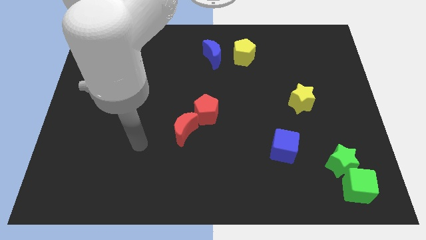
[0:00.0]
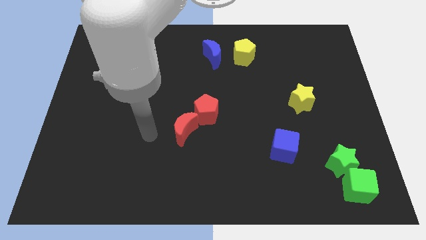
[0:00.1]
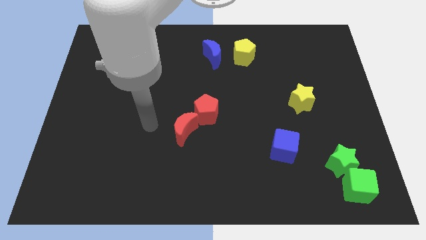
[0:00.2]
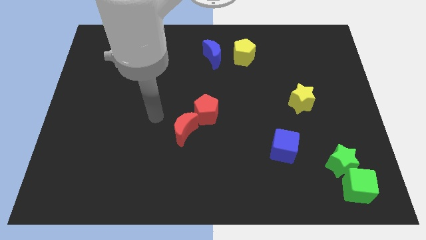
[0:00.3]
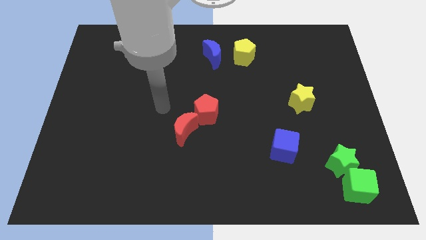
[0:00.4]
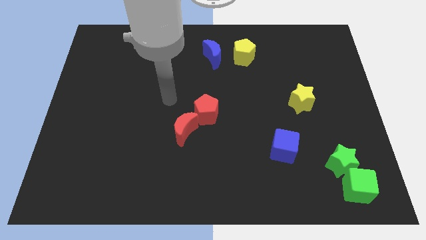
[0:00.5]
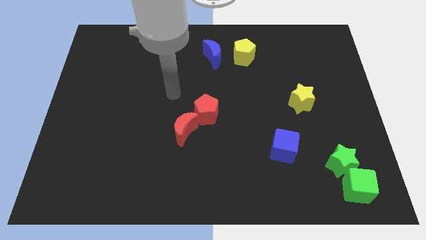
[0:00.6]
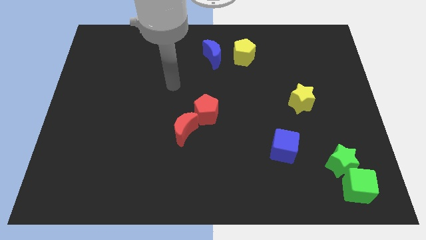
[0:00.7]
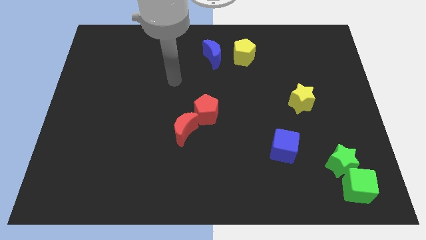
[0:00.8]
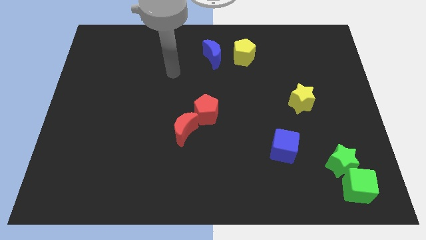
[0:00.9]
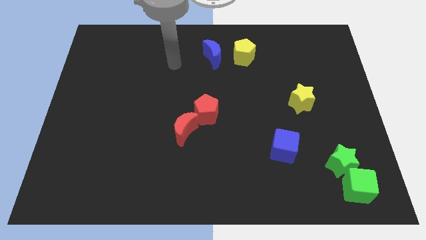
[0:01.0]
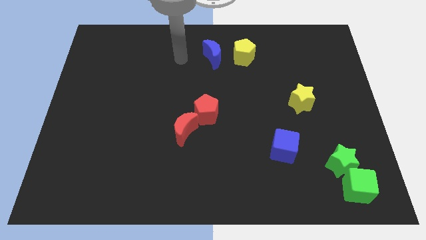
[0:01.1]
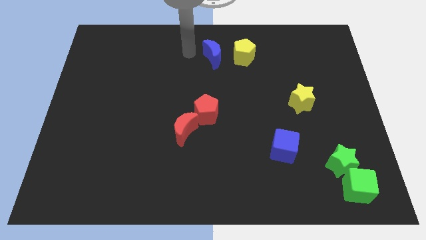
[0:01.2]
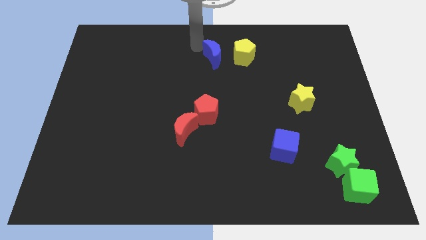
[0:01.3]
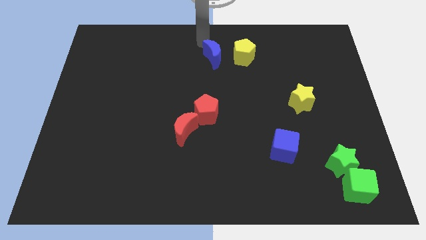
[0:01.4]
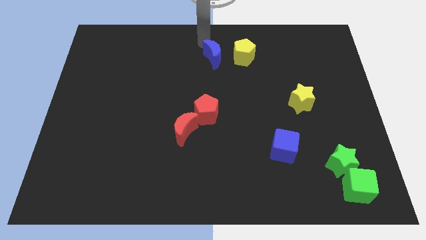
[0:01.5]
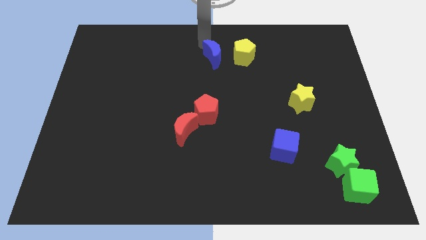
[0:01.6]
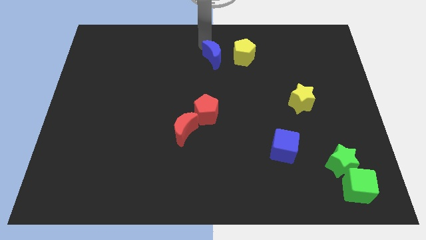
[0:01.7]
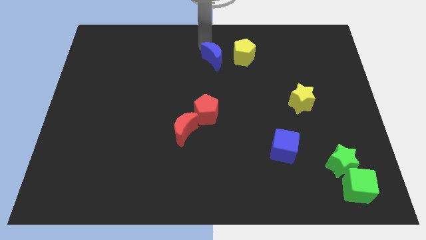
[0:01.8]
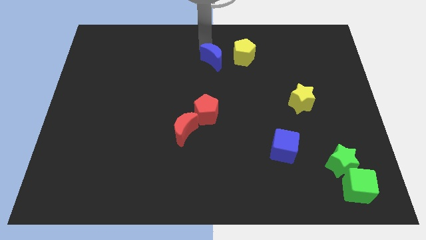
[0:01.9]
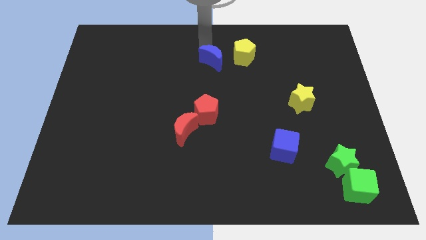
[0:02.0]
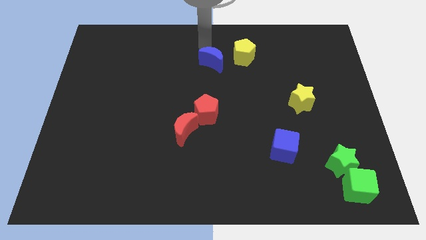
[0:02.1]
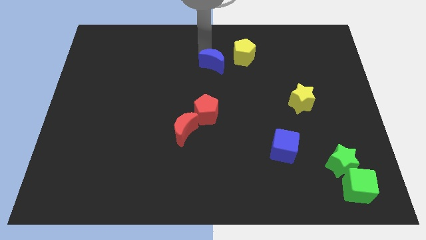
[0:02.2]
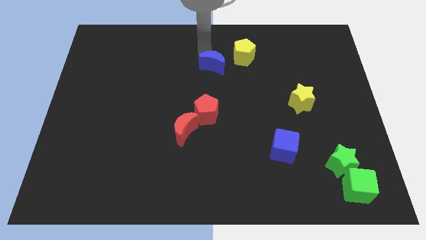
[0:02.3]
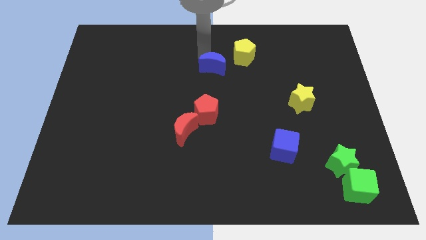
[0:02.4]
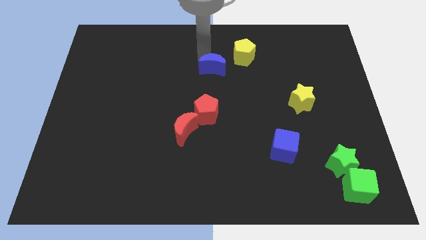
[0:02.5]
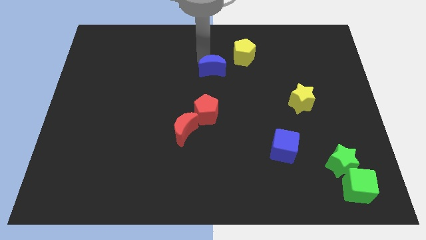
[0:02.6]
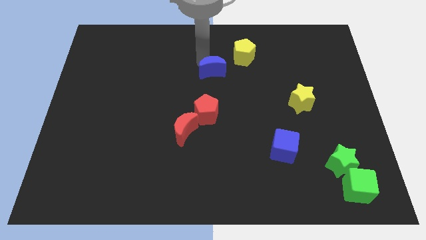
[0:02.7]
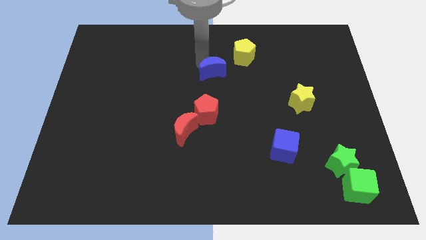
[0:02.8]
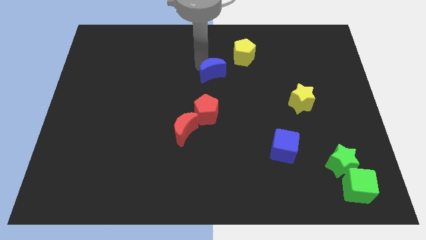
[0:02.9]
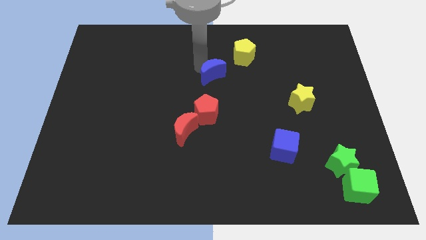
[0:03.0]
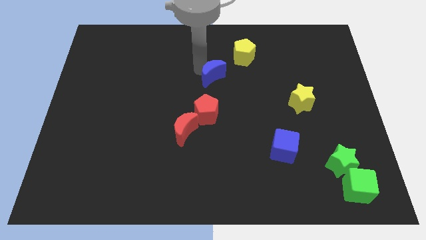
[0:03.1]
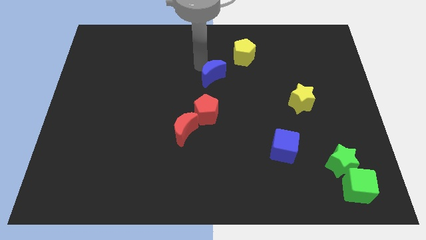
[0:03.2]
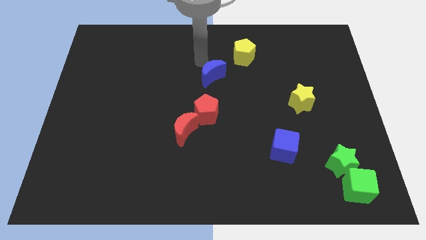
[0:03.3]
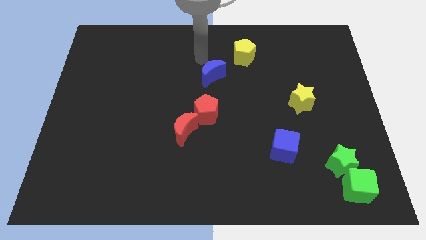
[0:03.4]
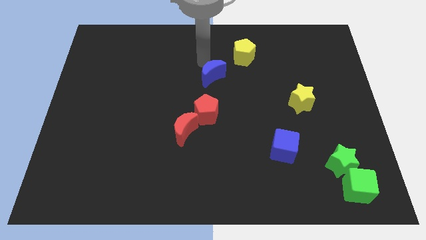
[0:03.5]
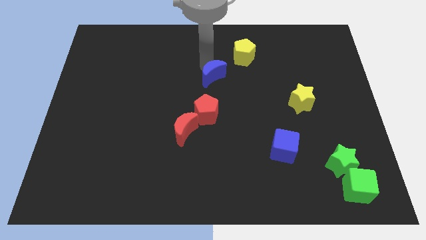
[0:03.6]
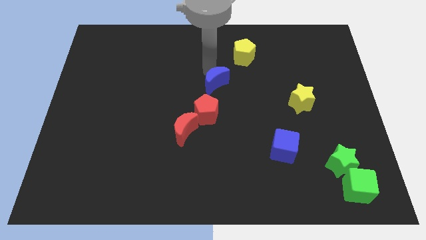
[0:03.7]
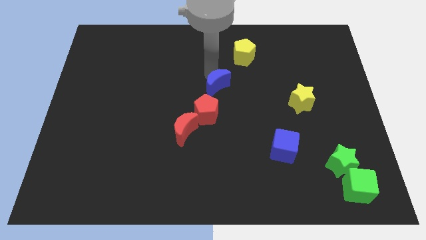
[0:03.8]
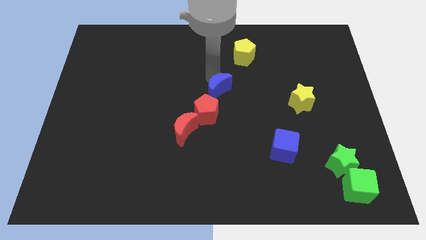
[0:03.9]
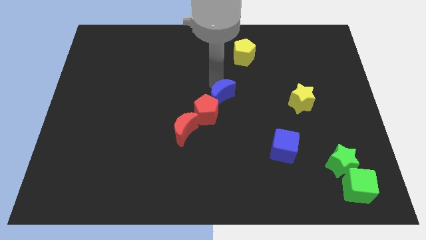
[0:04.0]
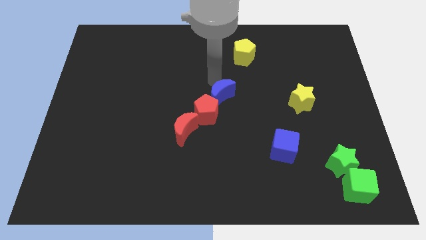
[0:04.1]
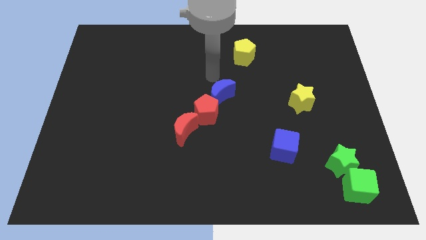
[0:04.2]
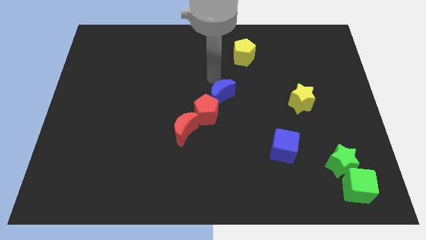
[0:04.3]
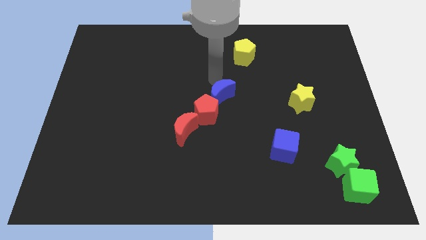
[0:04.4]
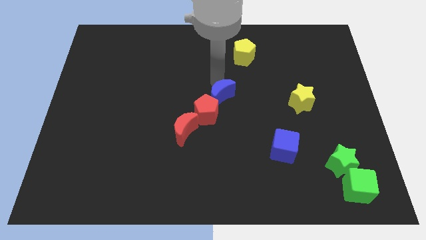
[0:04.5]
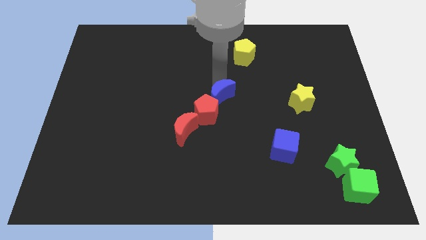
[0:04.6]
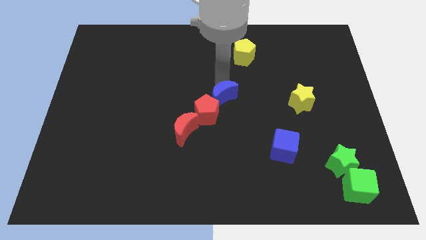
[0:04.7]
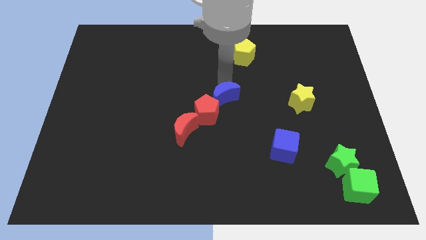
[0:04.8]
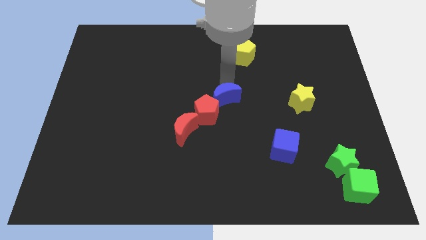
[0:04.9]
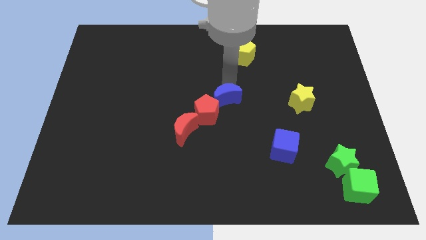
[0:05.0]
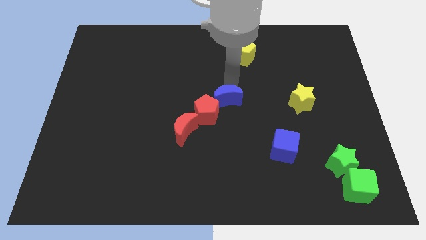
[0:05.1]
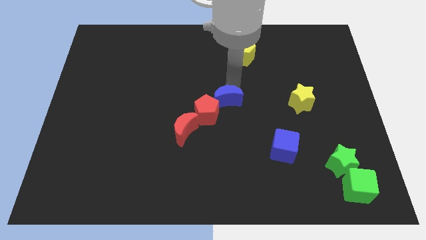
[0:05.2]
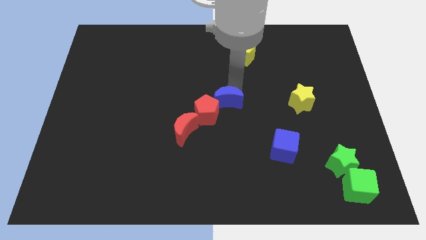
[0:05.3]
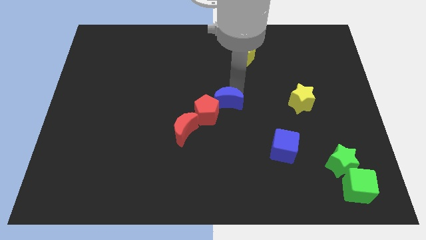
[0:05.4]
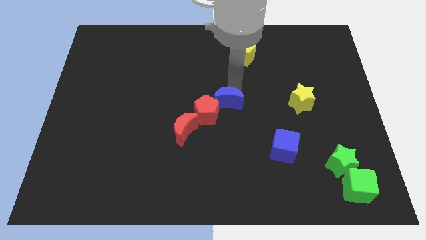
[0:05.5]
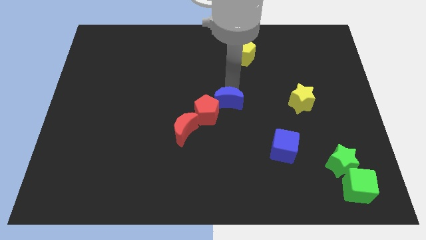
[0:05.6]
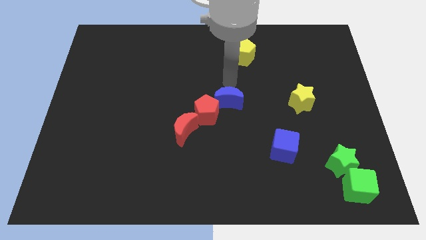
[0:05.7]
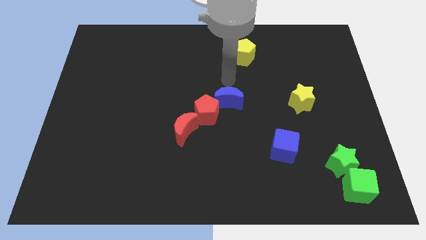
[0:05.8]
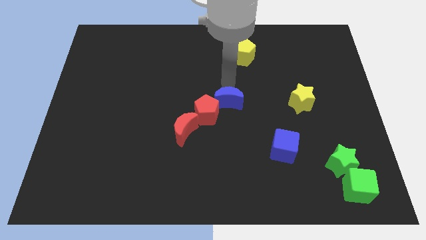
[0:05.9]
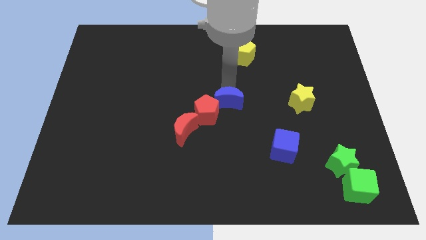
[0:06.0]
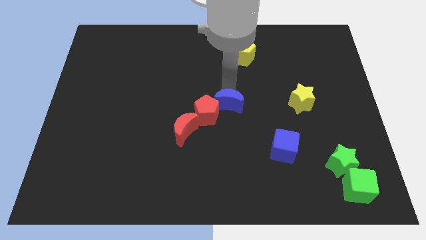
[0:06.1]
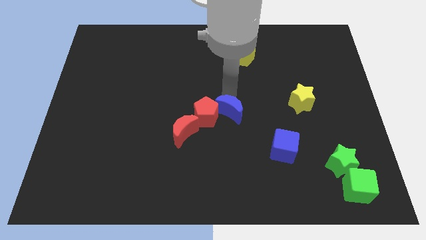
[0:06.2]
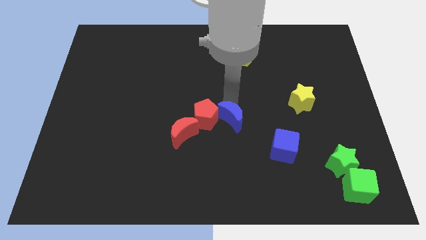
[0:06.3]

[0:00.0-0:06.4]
move the blue moon right of the red moon

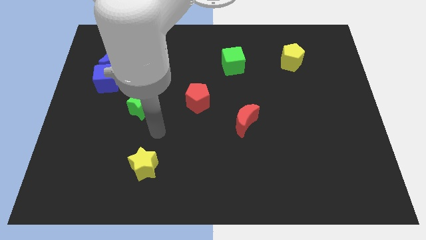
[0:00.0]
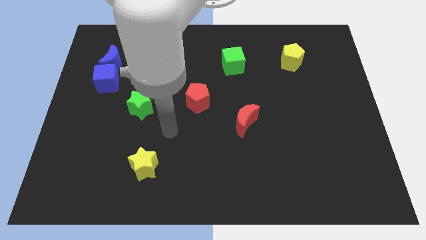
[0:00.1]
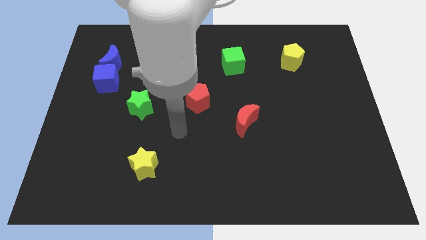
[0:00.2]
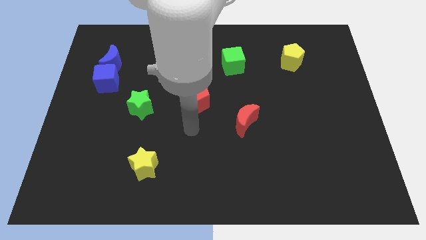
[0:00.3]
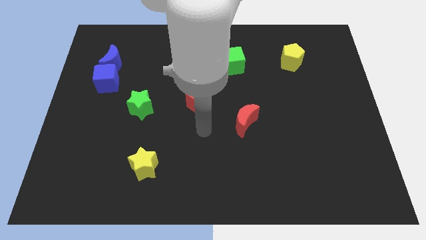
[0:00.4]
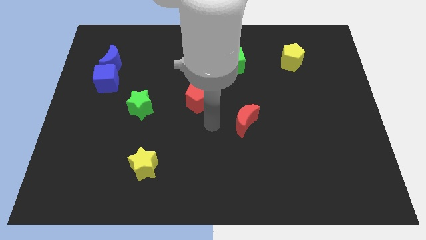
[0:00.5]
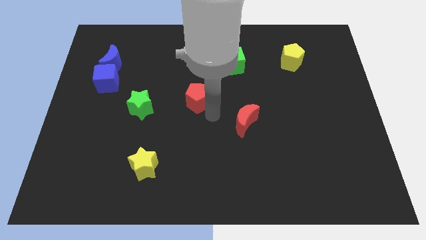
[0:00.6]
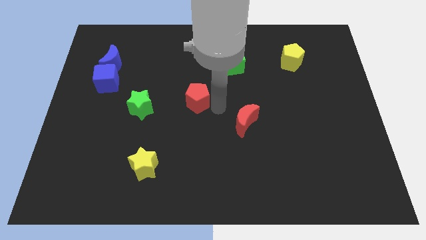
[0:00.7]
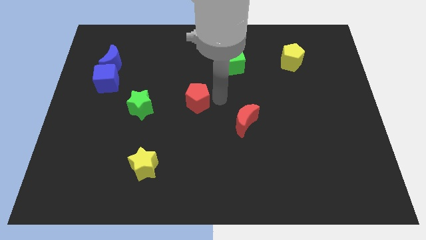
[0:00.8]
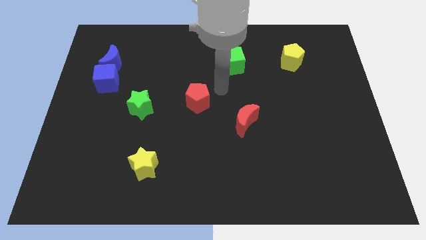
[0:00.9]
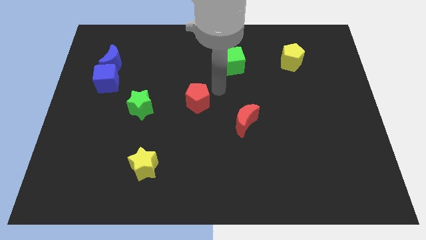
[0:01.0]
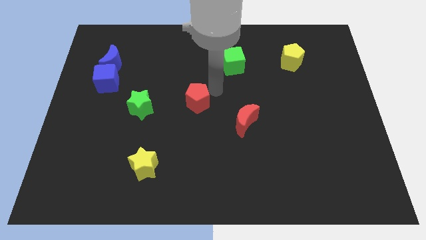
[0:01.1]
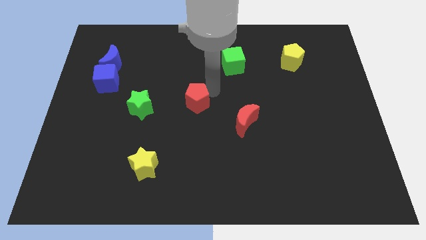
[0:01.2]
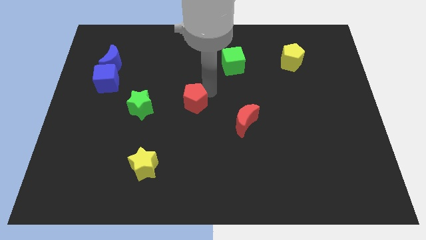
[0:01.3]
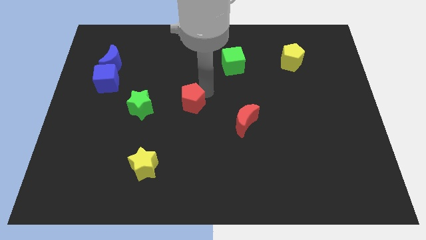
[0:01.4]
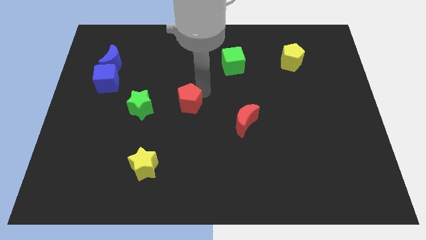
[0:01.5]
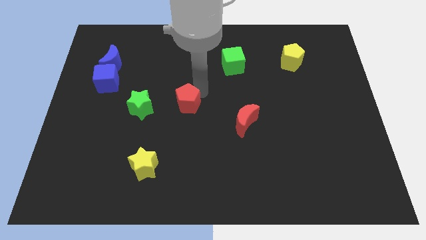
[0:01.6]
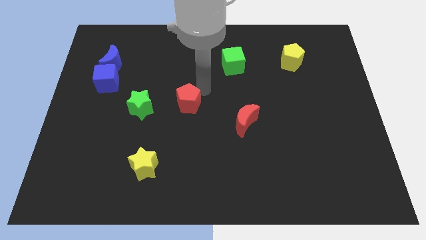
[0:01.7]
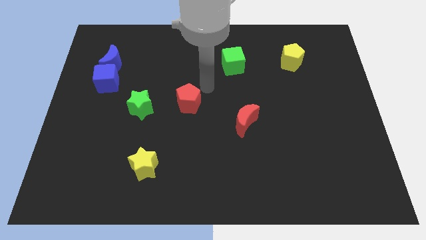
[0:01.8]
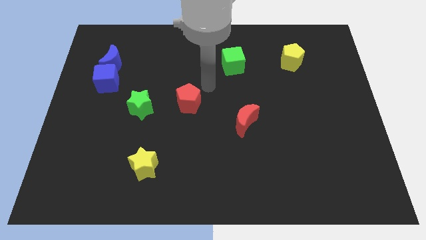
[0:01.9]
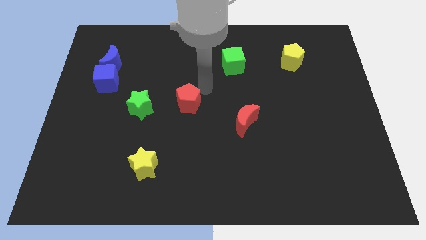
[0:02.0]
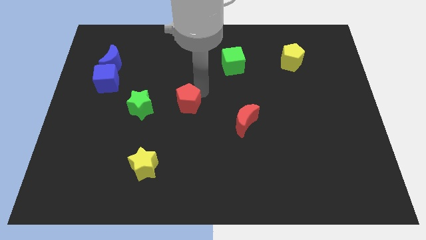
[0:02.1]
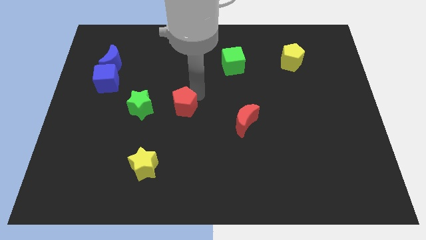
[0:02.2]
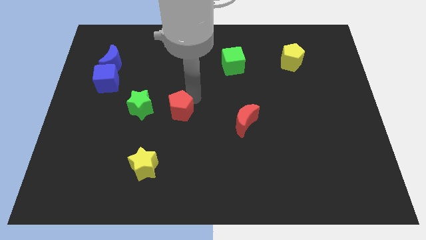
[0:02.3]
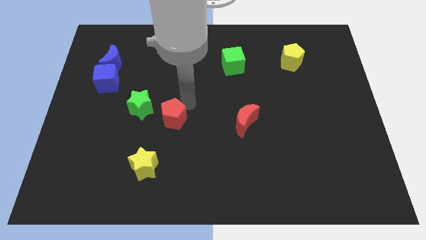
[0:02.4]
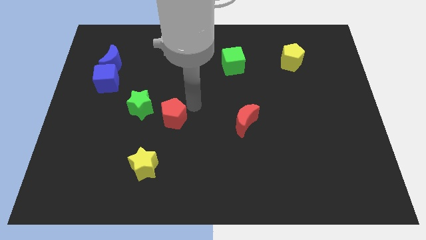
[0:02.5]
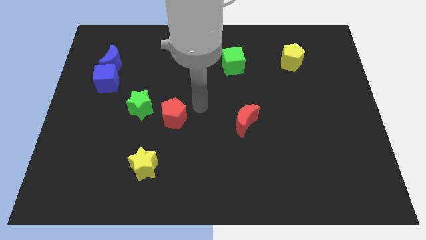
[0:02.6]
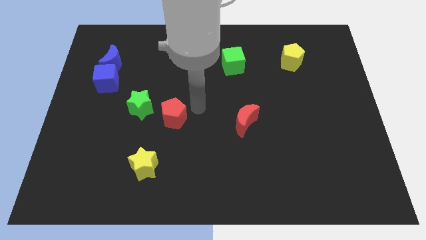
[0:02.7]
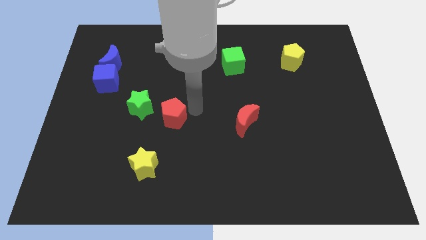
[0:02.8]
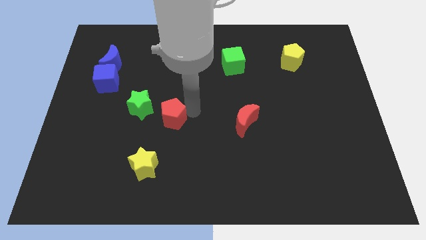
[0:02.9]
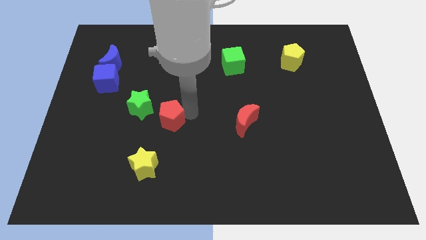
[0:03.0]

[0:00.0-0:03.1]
push the red pentagon above the yellow star
